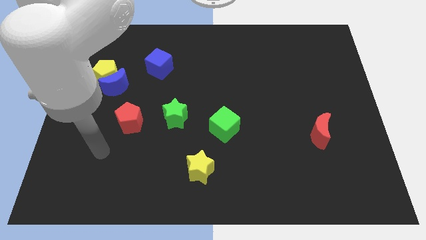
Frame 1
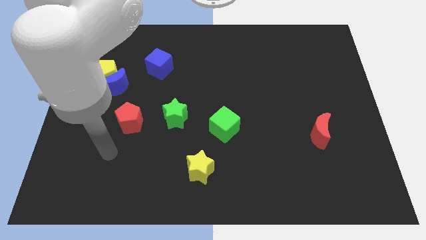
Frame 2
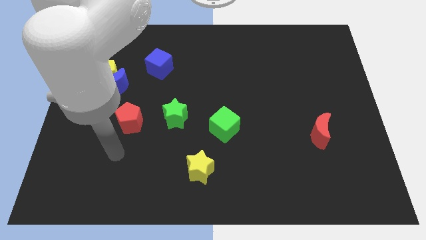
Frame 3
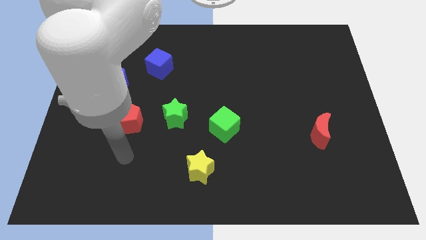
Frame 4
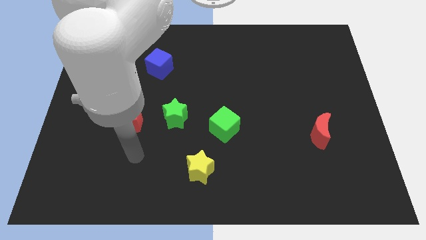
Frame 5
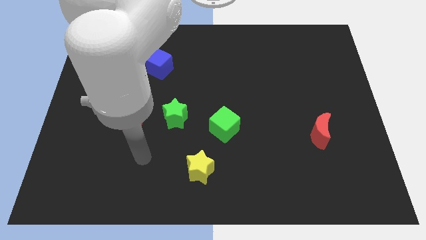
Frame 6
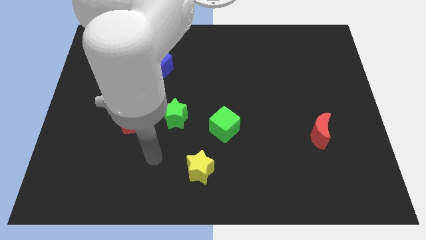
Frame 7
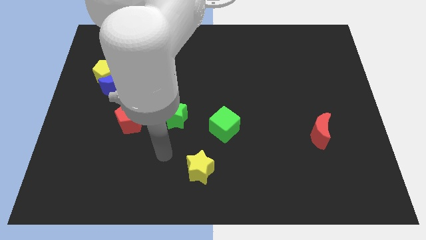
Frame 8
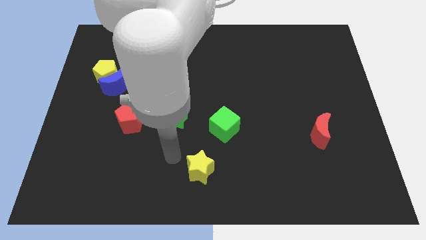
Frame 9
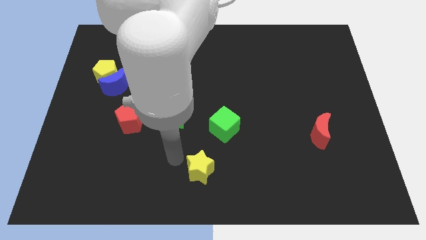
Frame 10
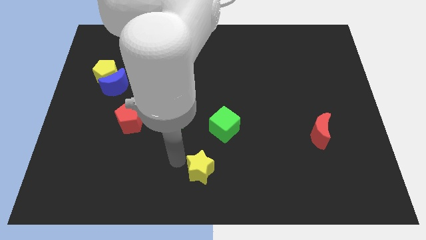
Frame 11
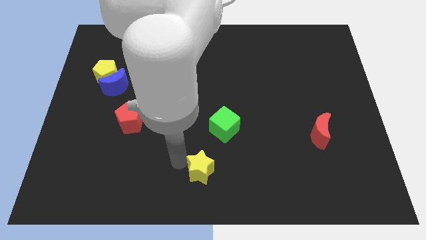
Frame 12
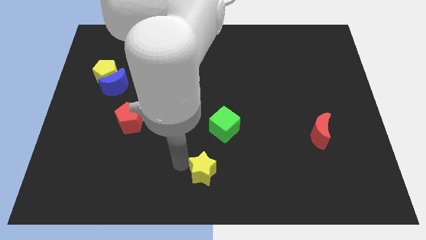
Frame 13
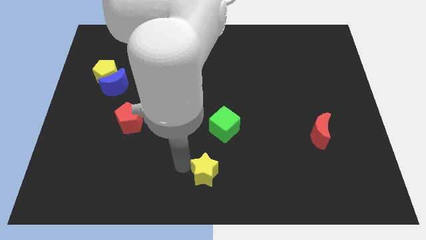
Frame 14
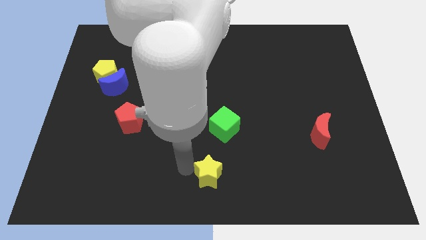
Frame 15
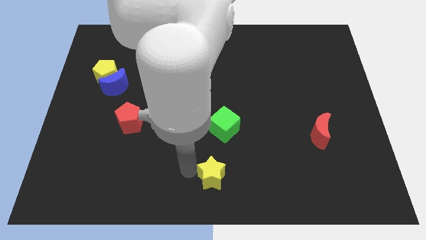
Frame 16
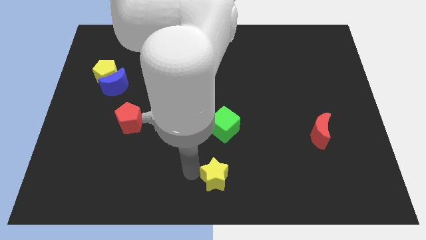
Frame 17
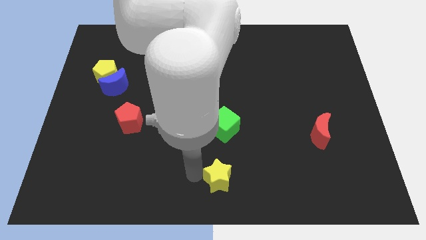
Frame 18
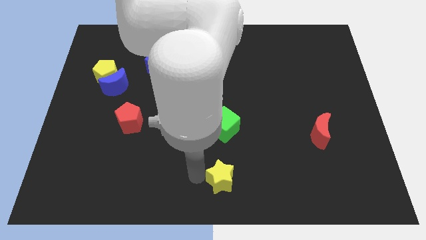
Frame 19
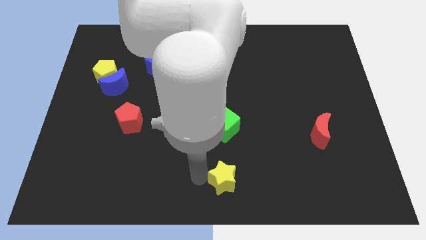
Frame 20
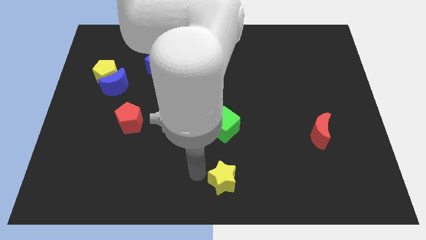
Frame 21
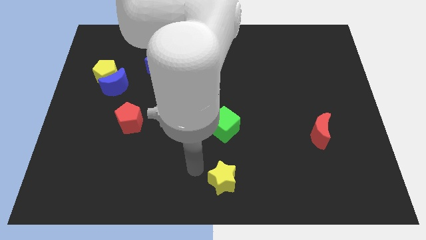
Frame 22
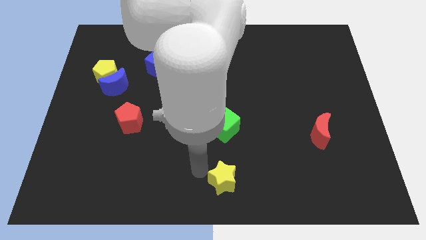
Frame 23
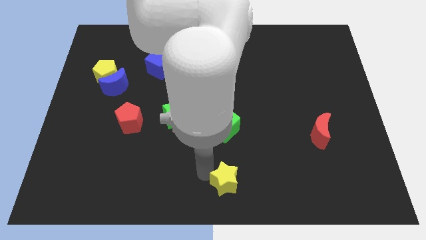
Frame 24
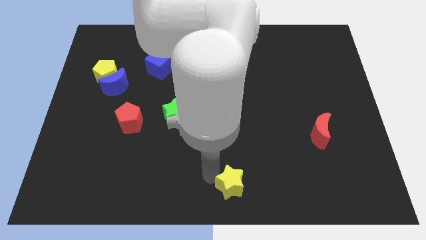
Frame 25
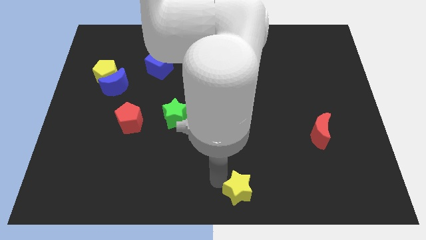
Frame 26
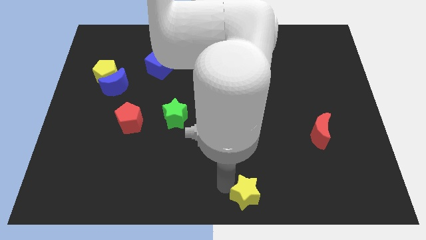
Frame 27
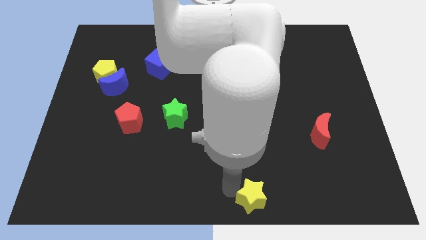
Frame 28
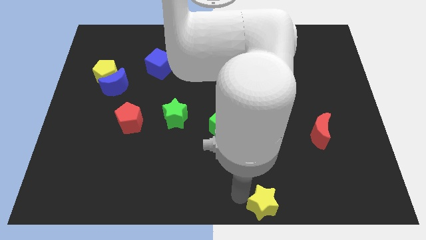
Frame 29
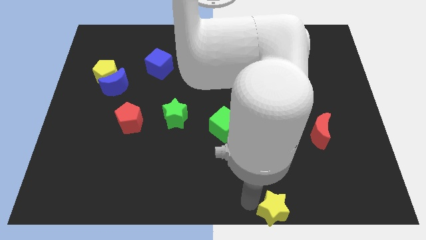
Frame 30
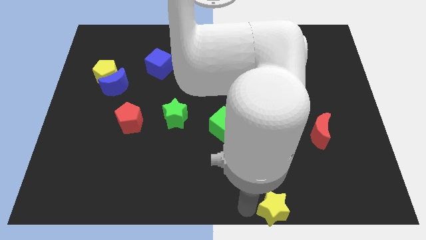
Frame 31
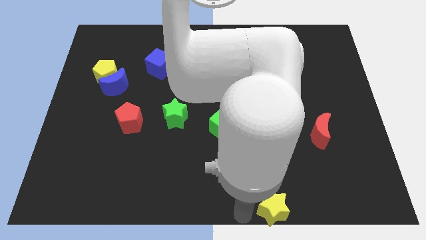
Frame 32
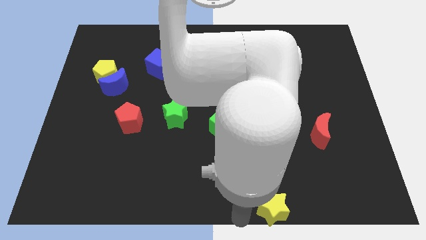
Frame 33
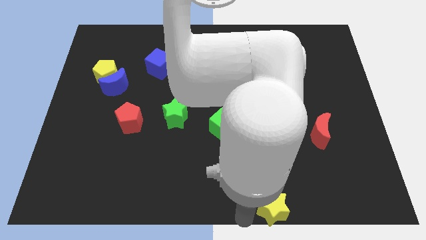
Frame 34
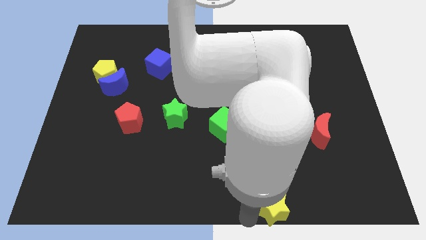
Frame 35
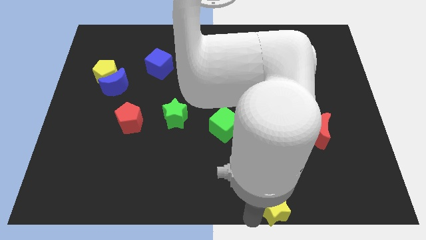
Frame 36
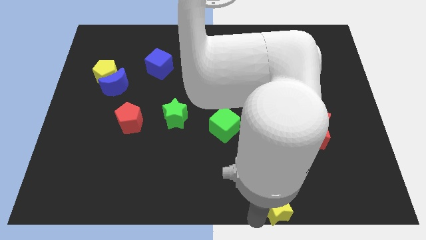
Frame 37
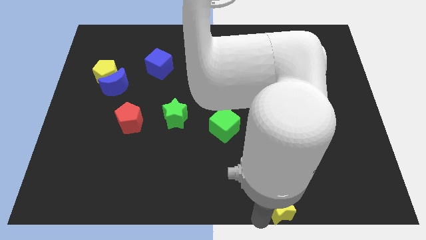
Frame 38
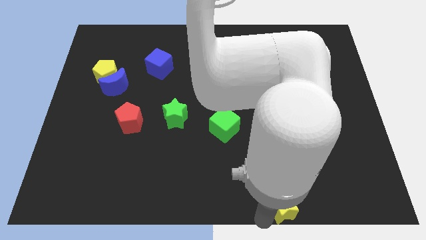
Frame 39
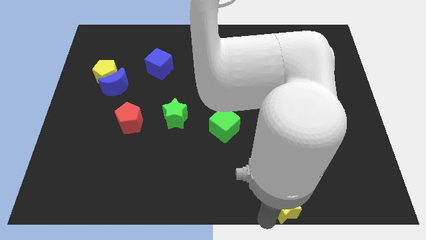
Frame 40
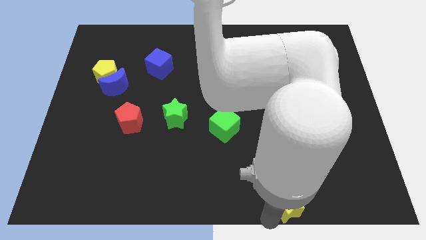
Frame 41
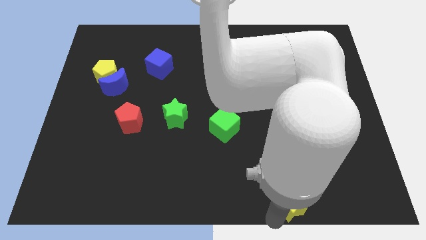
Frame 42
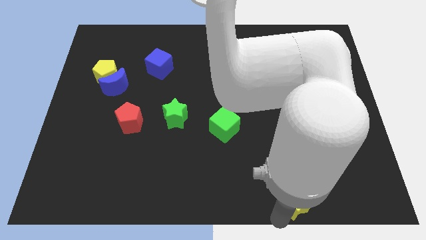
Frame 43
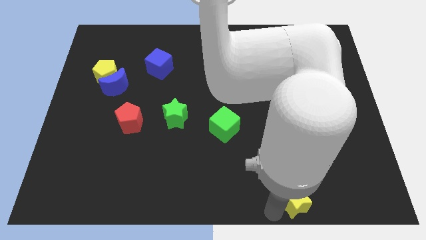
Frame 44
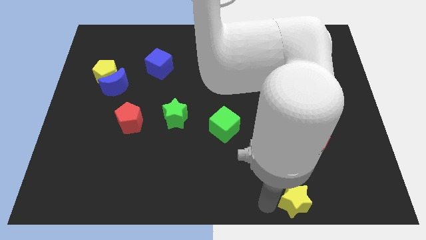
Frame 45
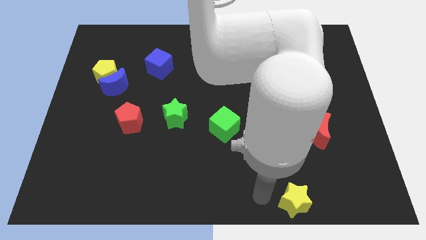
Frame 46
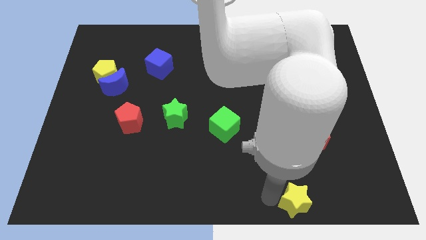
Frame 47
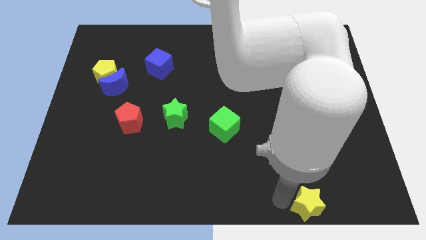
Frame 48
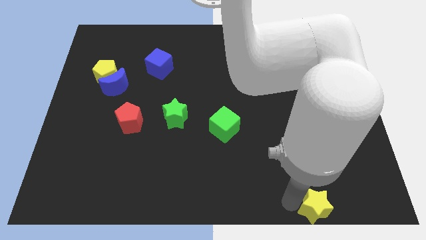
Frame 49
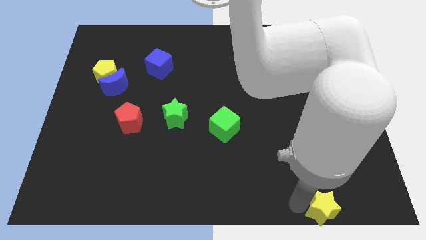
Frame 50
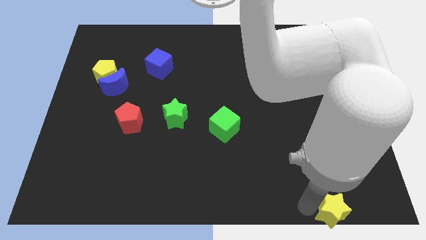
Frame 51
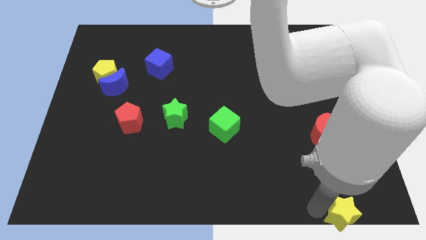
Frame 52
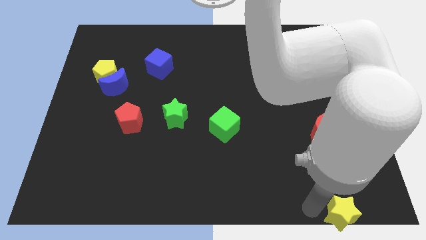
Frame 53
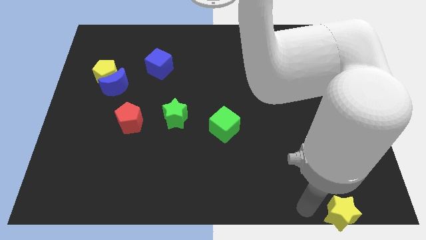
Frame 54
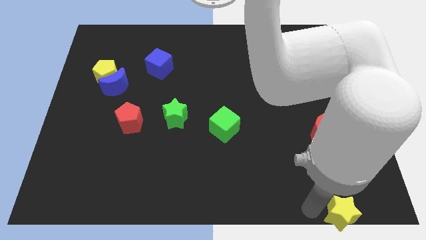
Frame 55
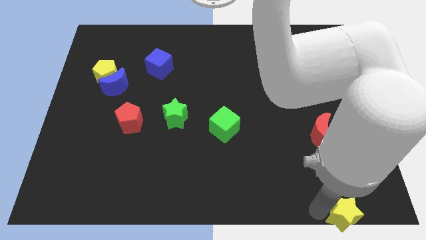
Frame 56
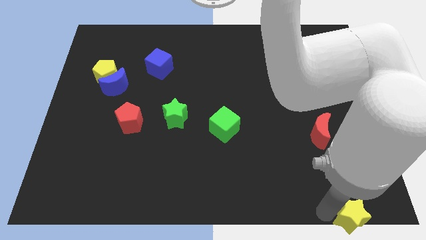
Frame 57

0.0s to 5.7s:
move the yellow star to the bottom right

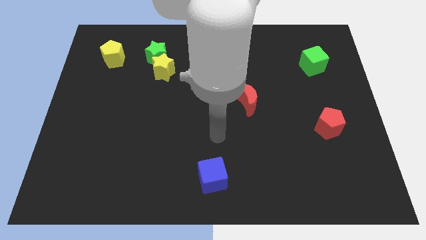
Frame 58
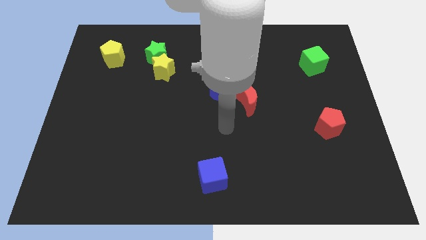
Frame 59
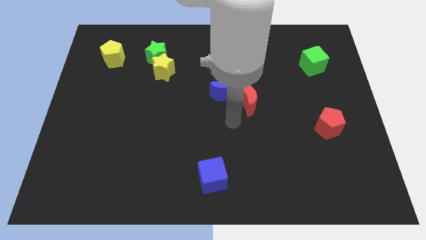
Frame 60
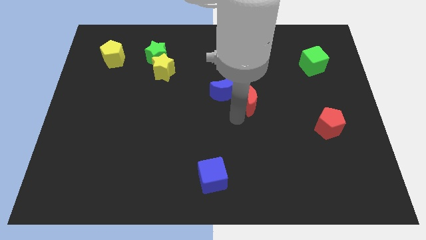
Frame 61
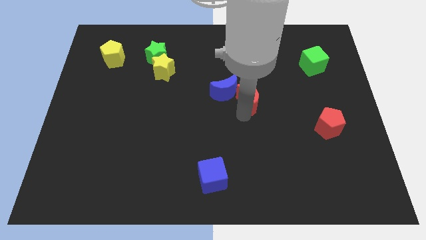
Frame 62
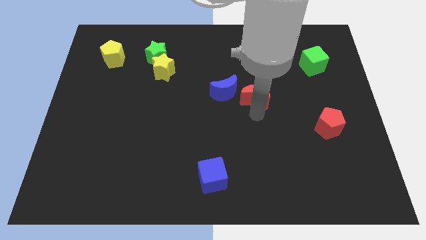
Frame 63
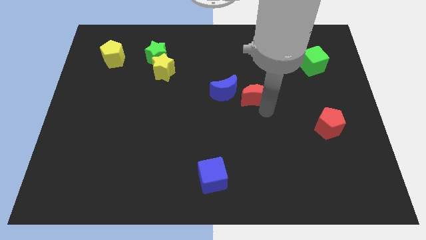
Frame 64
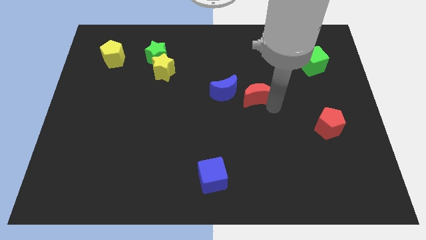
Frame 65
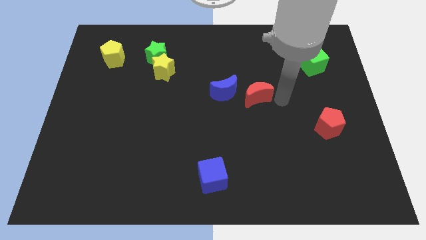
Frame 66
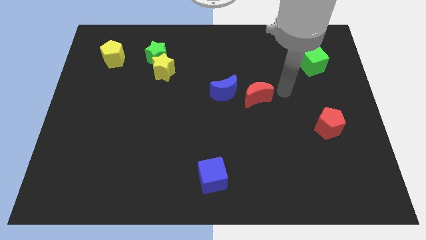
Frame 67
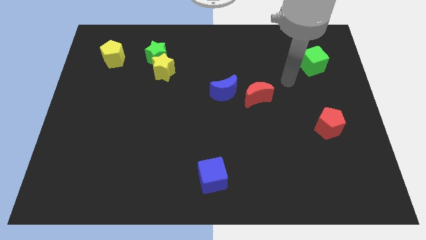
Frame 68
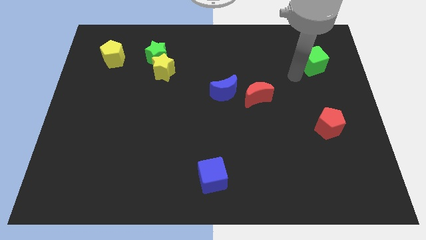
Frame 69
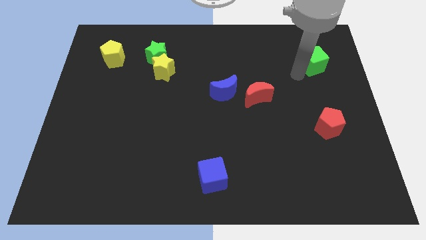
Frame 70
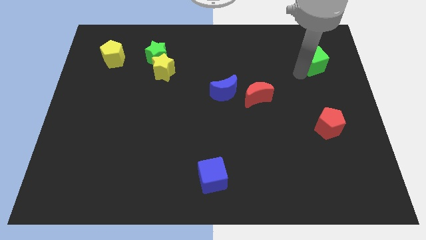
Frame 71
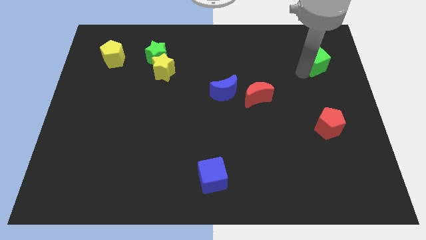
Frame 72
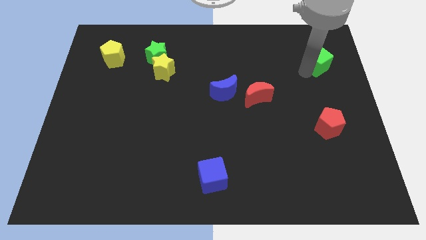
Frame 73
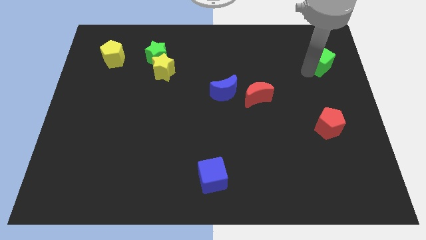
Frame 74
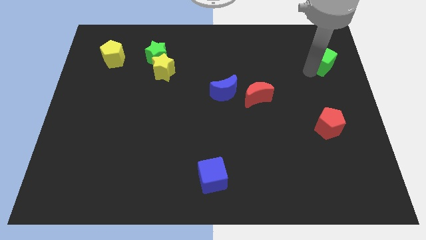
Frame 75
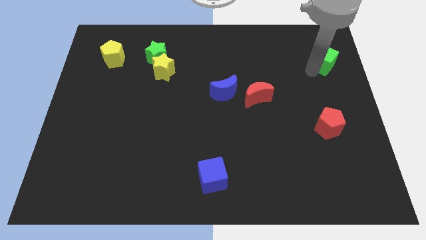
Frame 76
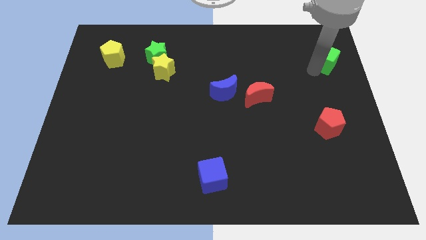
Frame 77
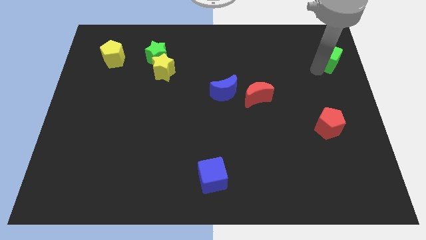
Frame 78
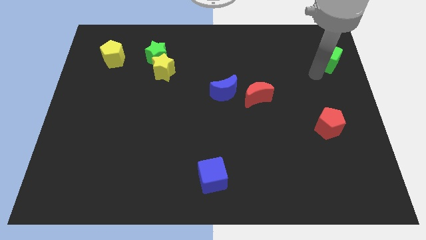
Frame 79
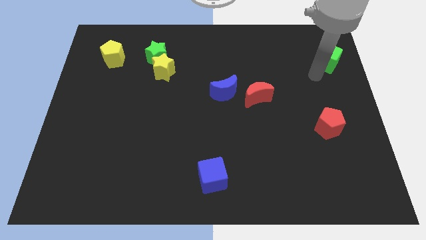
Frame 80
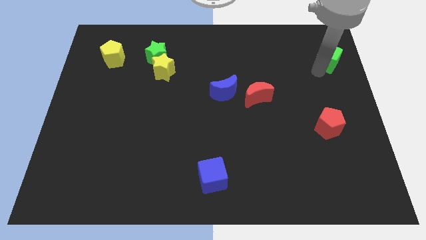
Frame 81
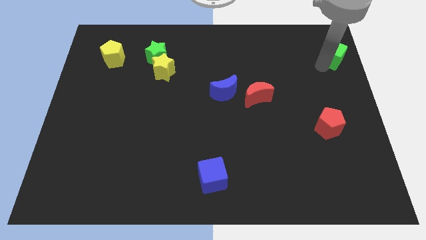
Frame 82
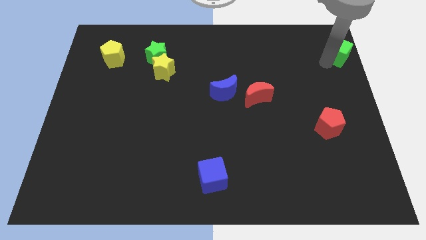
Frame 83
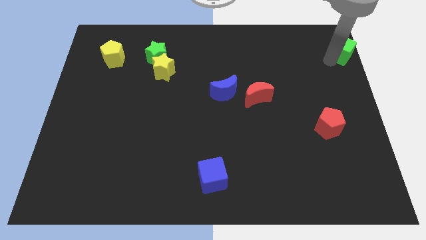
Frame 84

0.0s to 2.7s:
put the green cube to the top right
